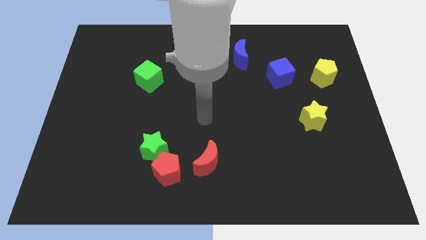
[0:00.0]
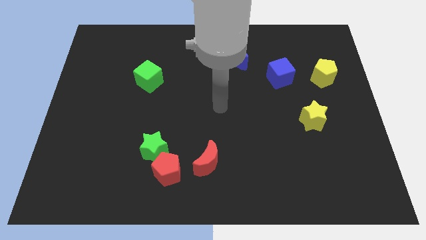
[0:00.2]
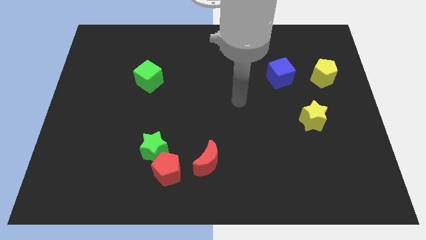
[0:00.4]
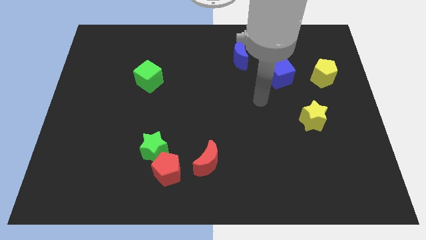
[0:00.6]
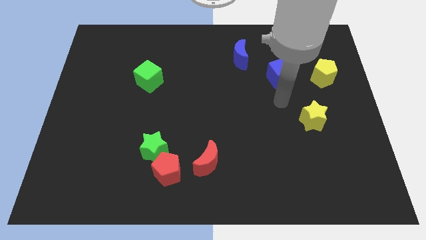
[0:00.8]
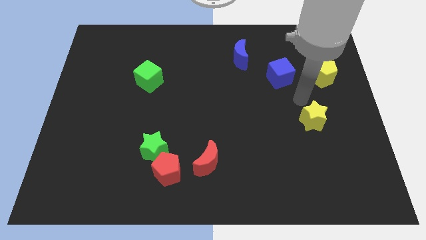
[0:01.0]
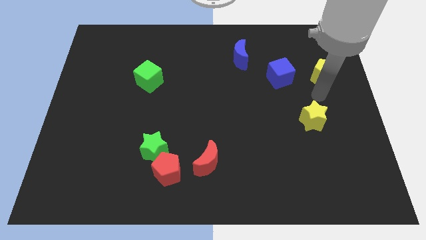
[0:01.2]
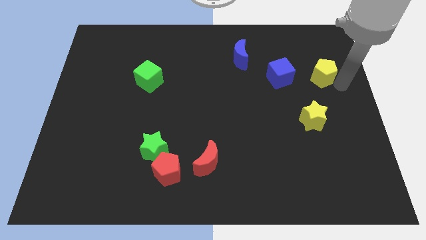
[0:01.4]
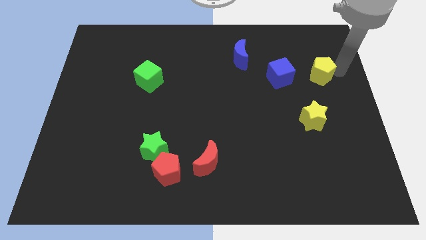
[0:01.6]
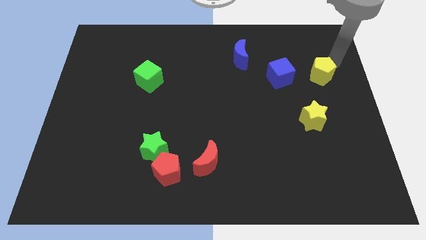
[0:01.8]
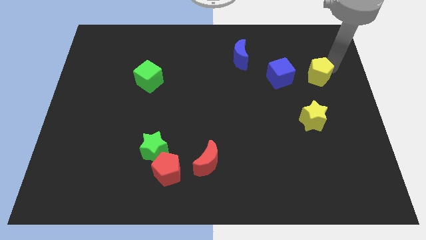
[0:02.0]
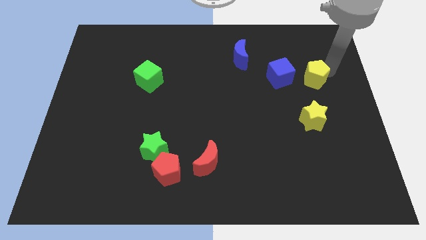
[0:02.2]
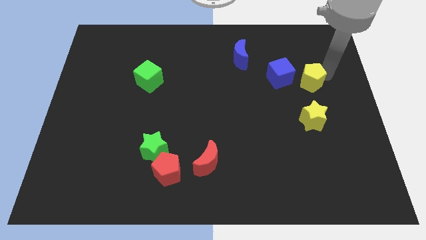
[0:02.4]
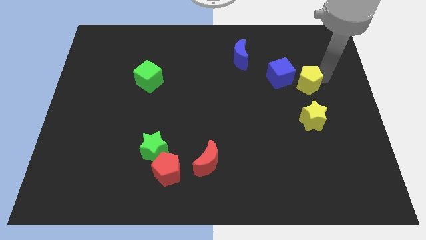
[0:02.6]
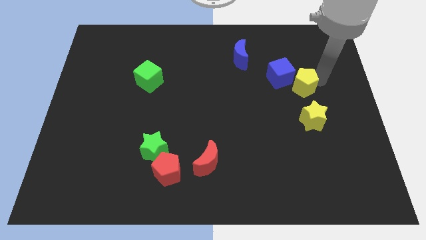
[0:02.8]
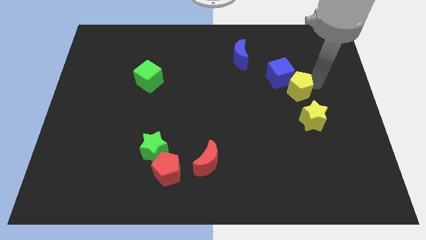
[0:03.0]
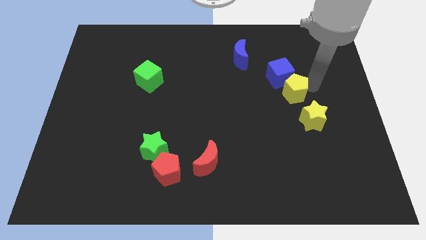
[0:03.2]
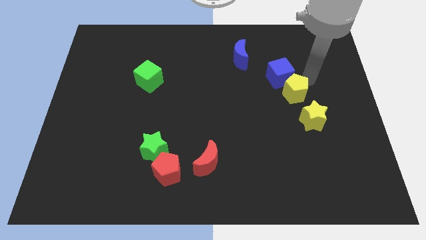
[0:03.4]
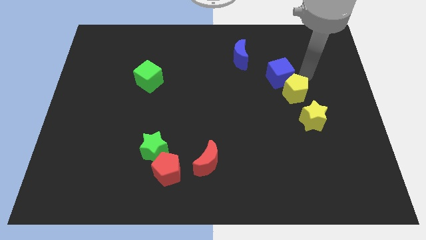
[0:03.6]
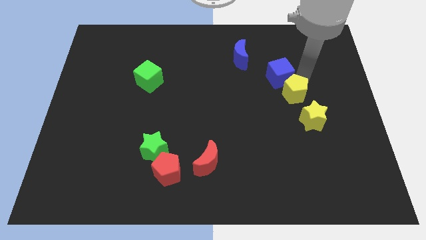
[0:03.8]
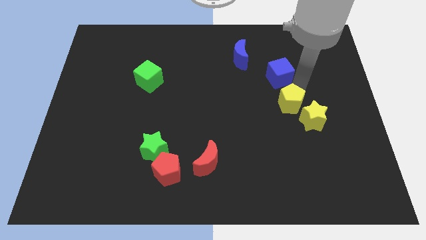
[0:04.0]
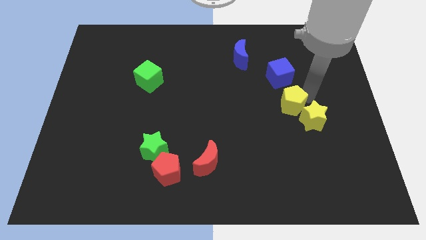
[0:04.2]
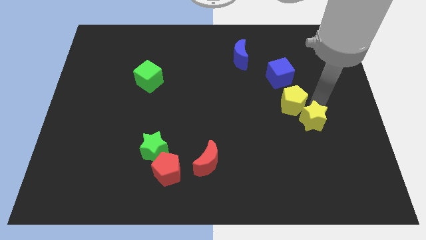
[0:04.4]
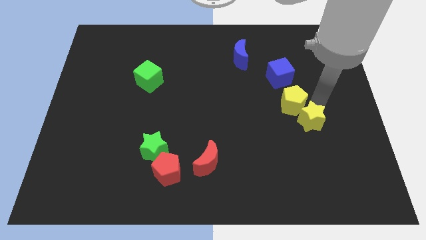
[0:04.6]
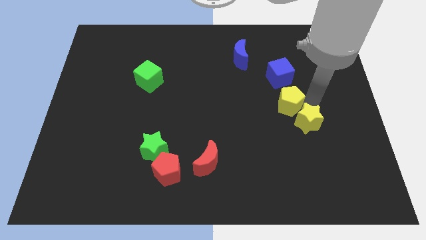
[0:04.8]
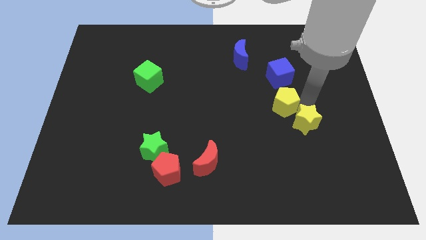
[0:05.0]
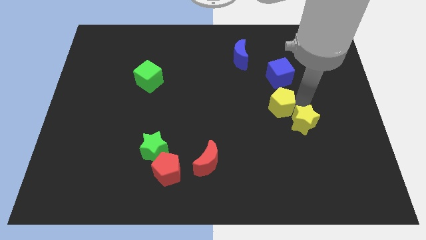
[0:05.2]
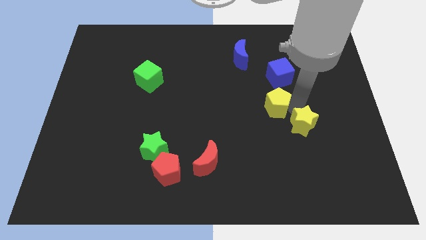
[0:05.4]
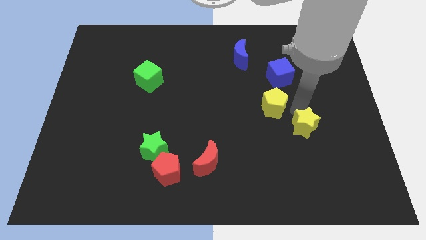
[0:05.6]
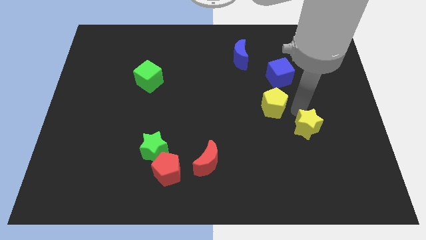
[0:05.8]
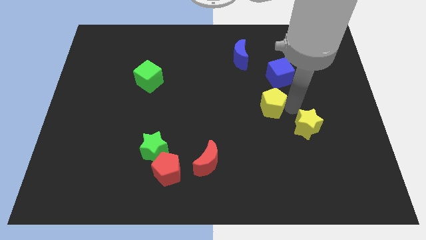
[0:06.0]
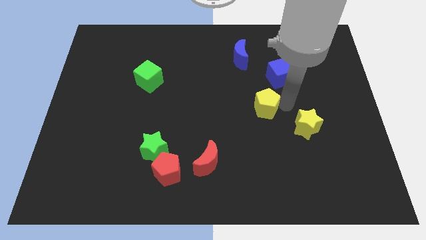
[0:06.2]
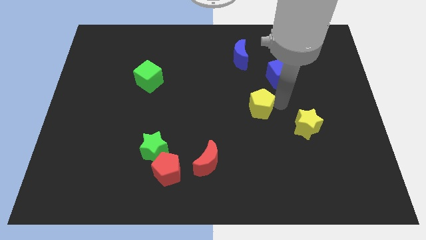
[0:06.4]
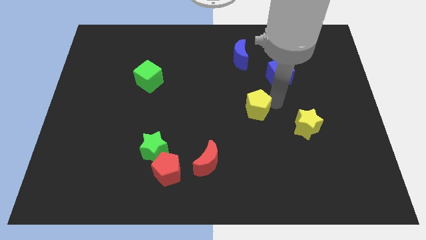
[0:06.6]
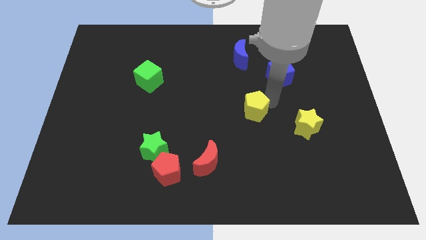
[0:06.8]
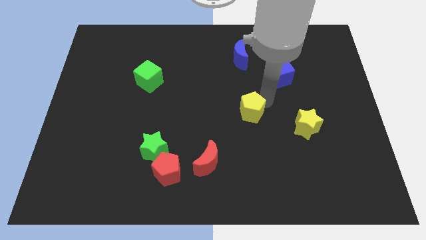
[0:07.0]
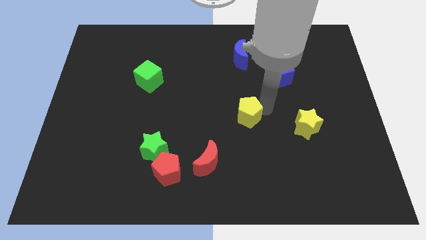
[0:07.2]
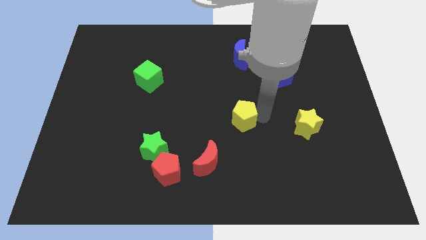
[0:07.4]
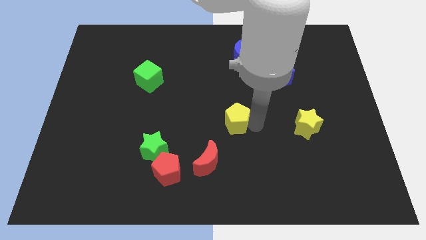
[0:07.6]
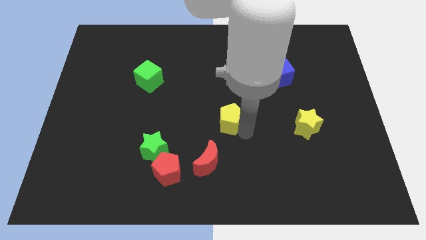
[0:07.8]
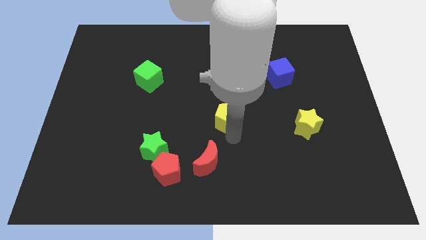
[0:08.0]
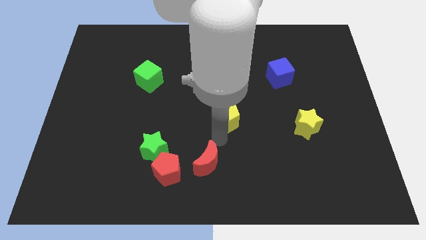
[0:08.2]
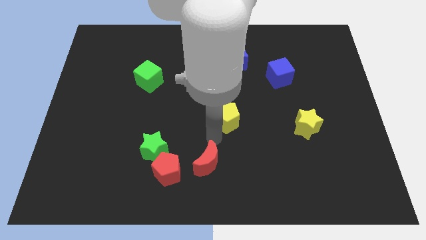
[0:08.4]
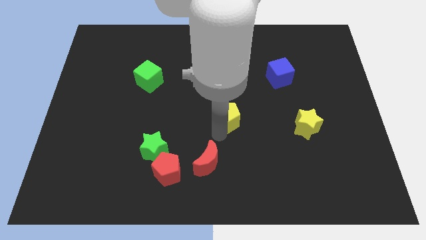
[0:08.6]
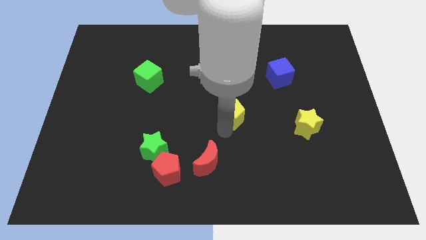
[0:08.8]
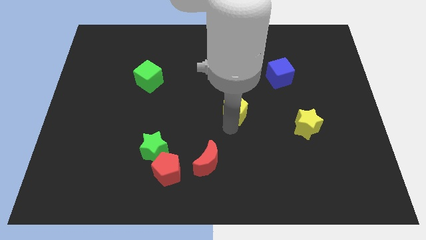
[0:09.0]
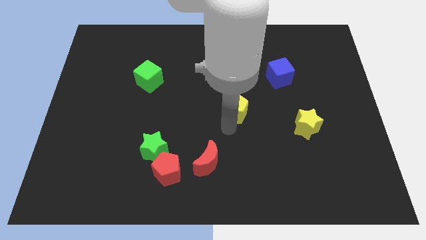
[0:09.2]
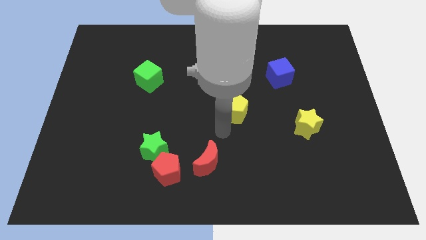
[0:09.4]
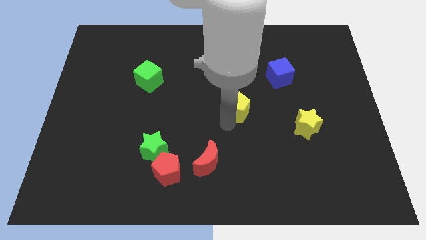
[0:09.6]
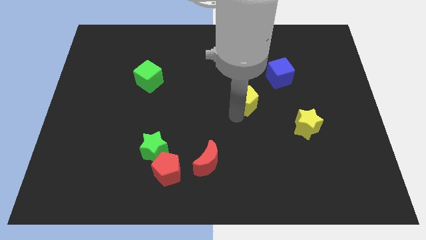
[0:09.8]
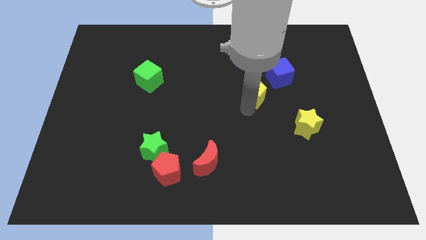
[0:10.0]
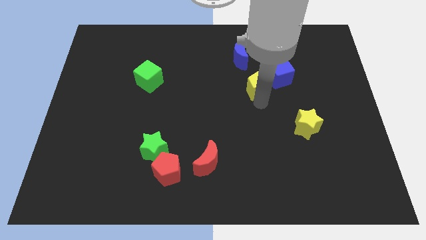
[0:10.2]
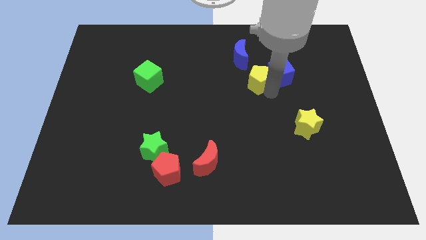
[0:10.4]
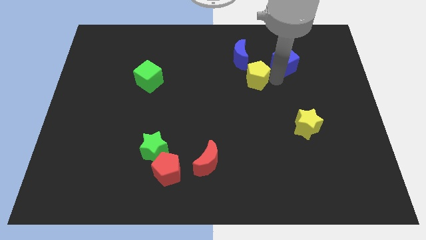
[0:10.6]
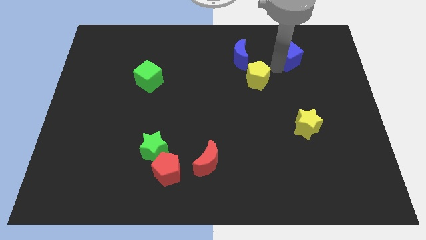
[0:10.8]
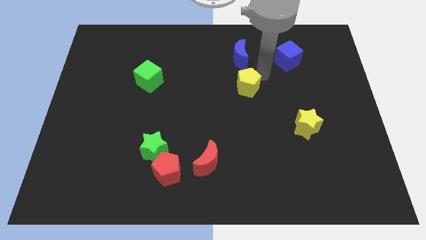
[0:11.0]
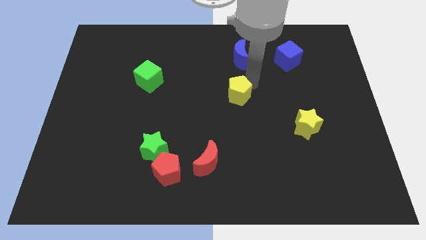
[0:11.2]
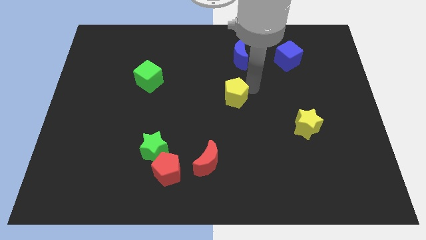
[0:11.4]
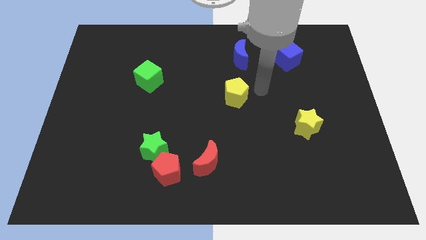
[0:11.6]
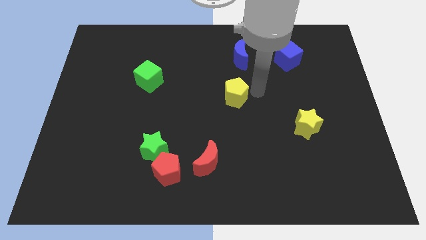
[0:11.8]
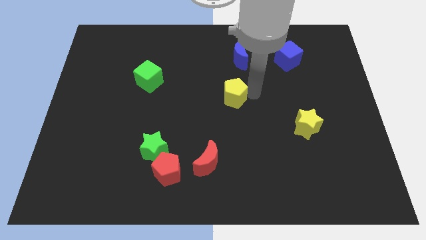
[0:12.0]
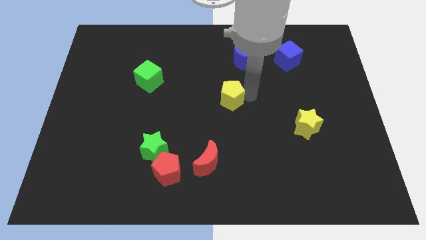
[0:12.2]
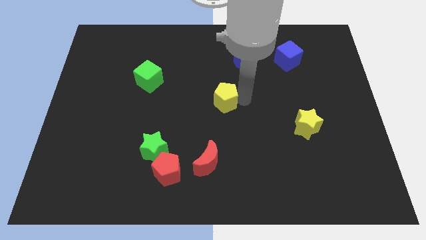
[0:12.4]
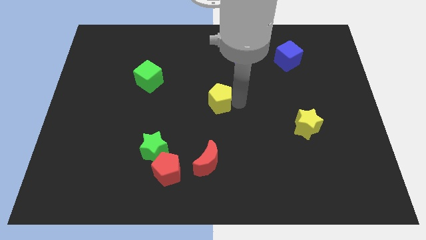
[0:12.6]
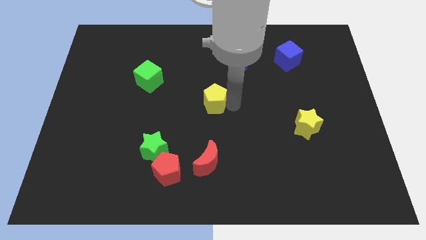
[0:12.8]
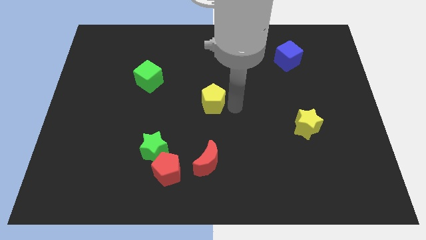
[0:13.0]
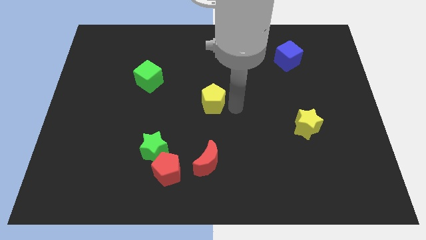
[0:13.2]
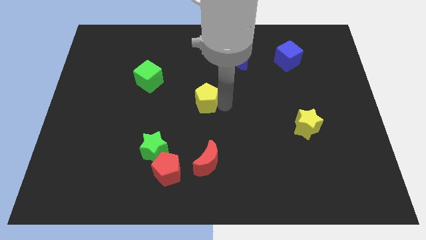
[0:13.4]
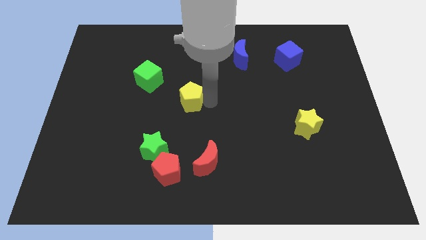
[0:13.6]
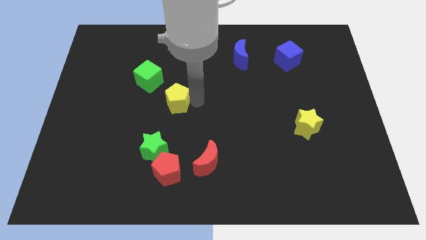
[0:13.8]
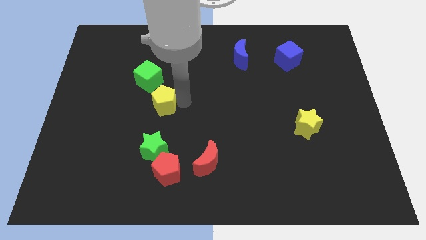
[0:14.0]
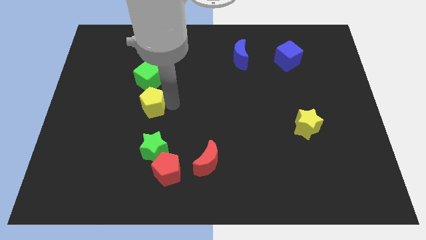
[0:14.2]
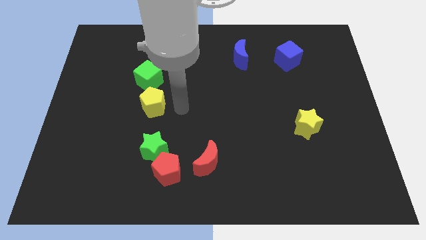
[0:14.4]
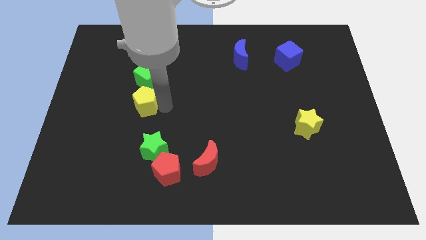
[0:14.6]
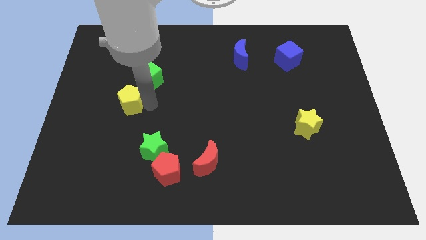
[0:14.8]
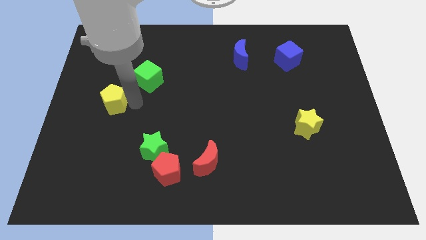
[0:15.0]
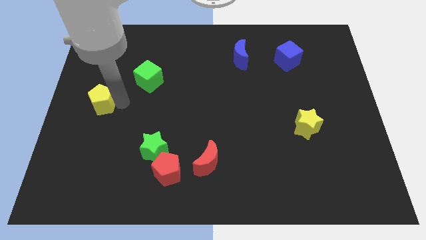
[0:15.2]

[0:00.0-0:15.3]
slide the yellow pentagon to the left side of the board

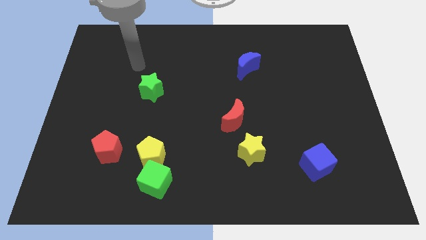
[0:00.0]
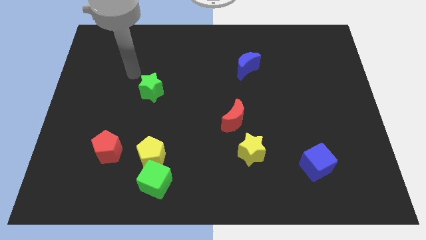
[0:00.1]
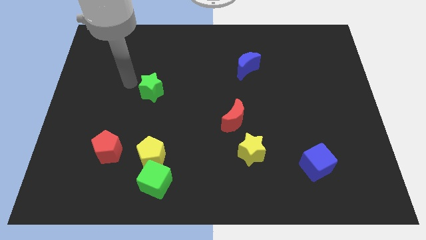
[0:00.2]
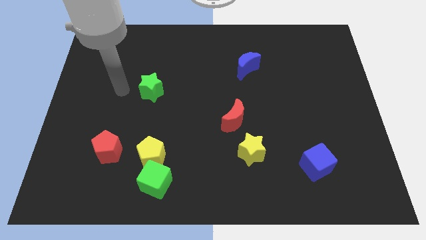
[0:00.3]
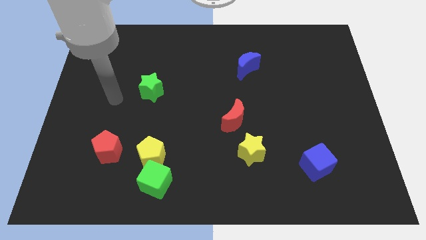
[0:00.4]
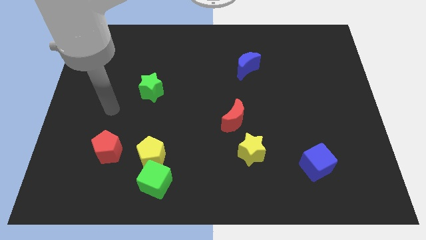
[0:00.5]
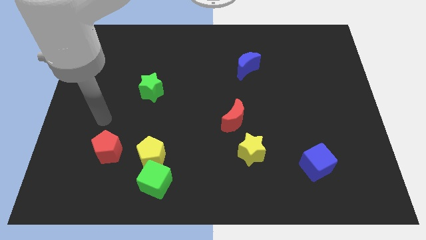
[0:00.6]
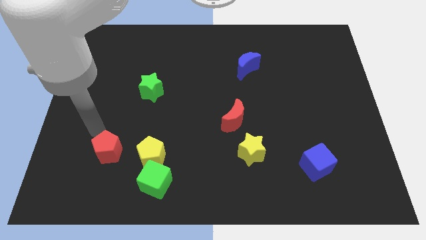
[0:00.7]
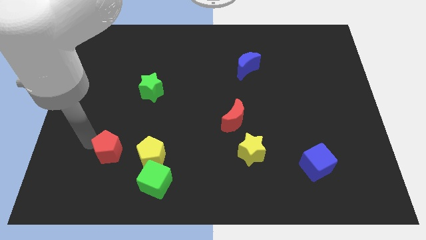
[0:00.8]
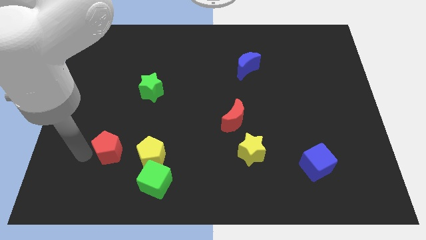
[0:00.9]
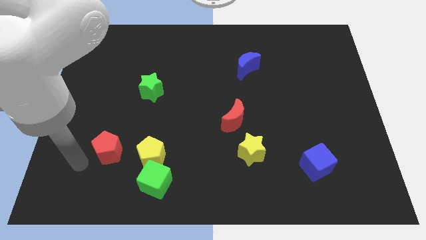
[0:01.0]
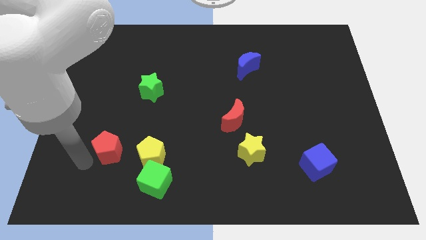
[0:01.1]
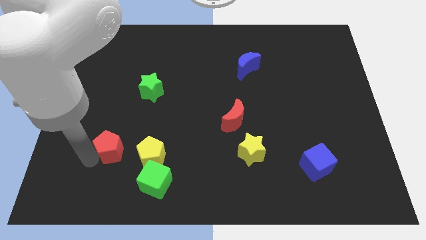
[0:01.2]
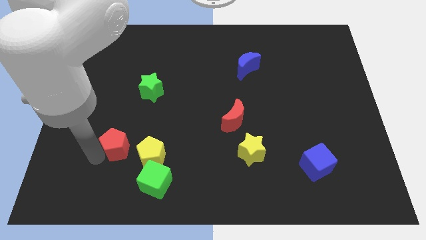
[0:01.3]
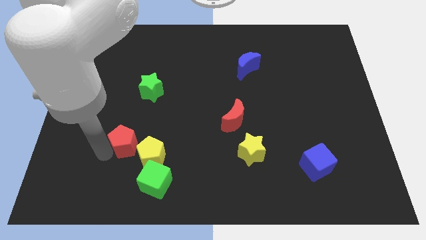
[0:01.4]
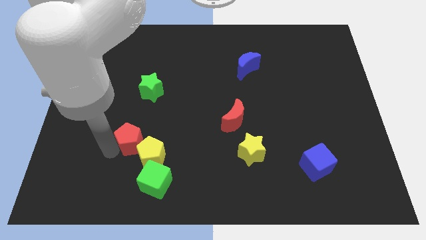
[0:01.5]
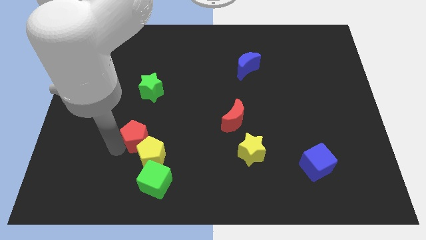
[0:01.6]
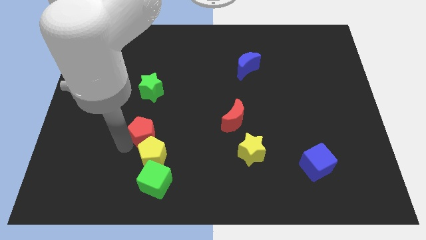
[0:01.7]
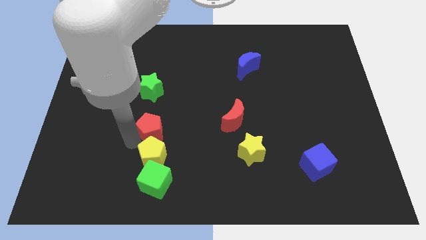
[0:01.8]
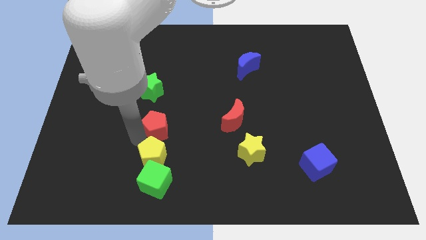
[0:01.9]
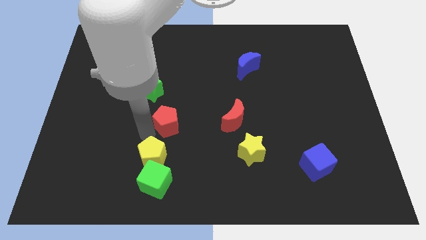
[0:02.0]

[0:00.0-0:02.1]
move the red pentagon to the center
